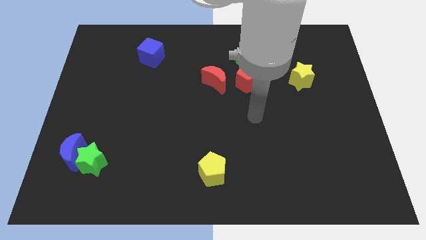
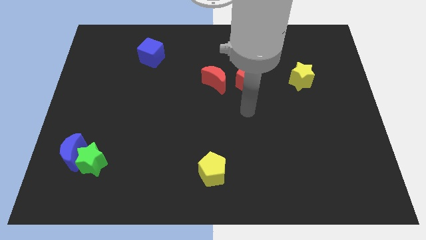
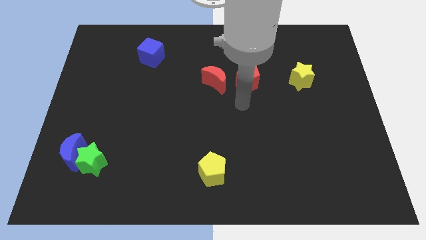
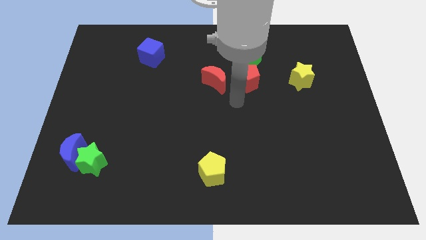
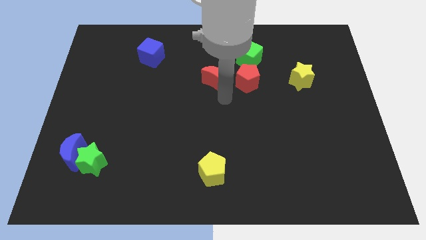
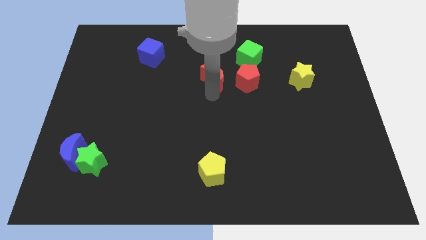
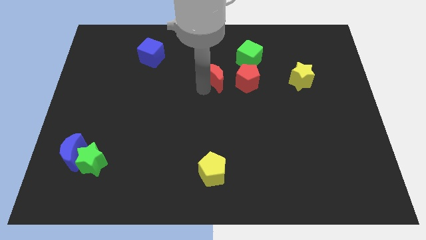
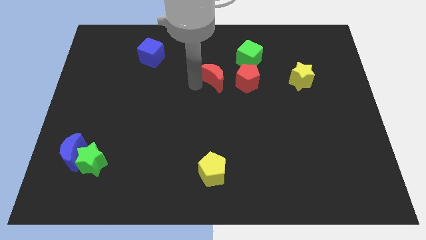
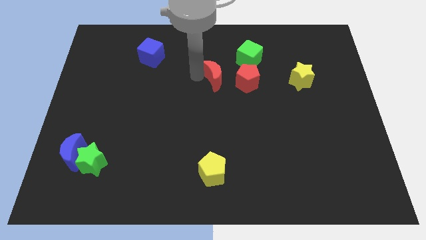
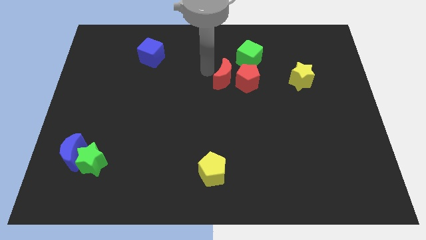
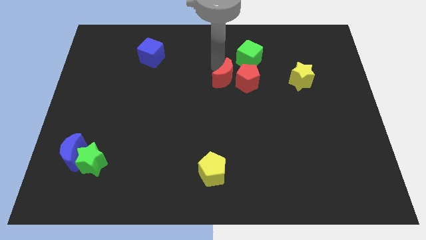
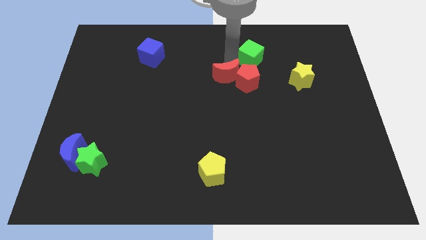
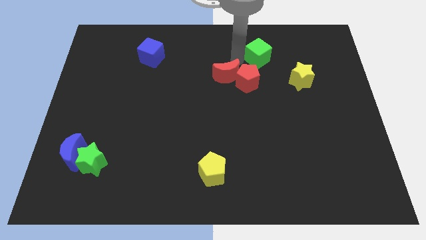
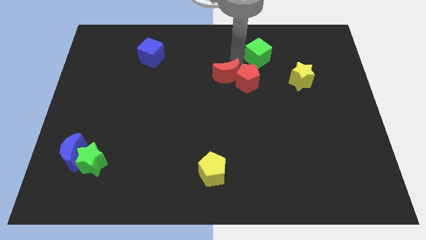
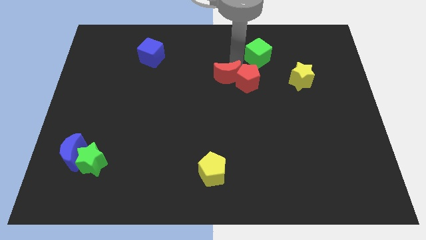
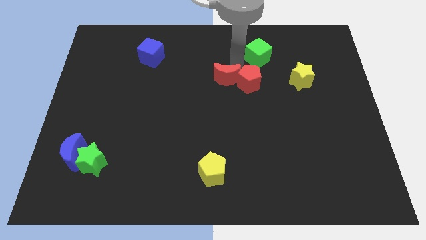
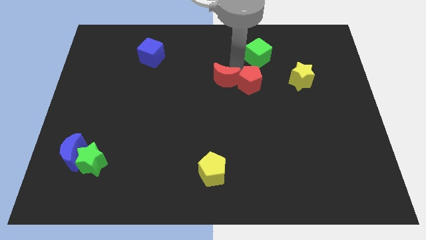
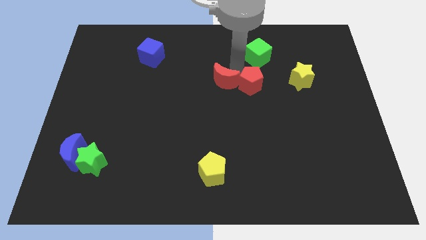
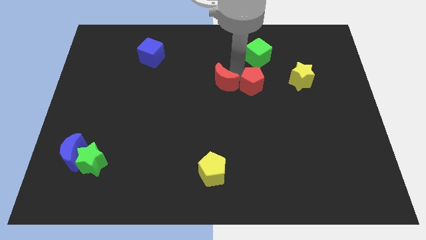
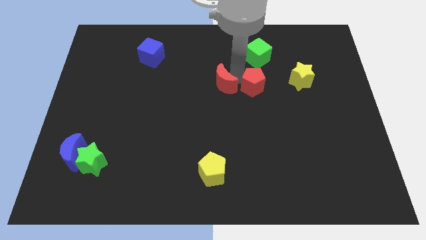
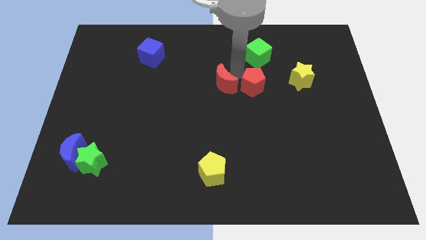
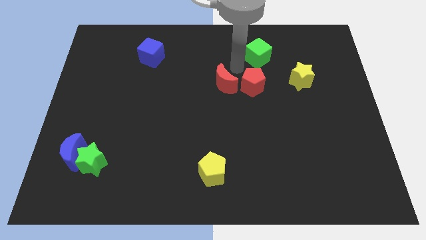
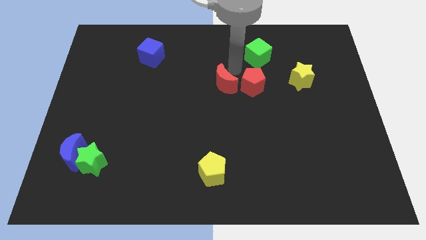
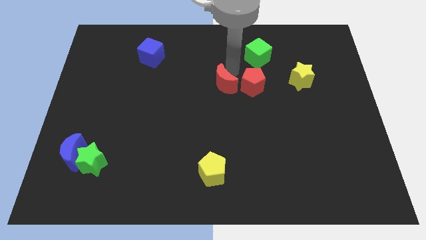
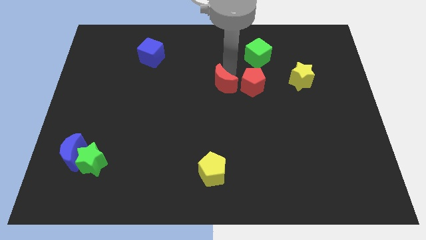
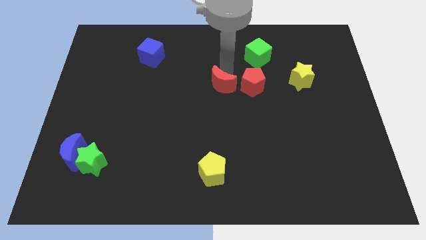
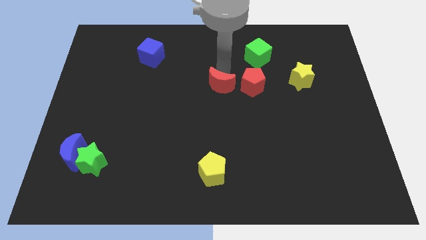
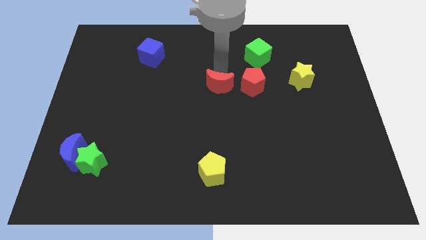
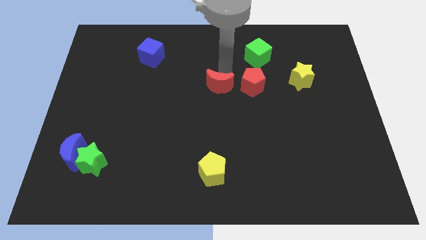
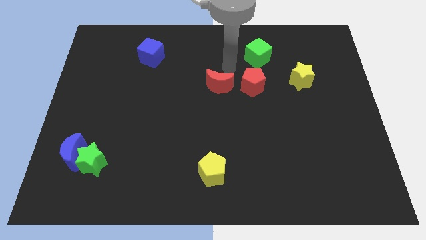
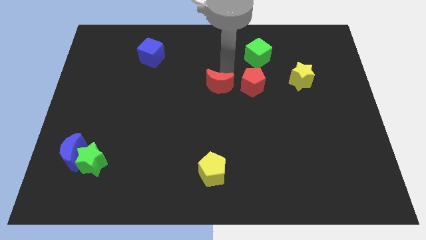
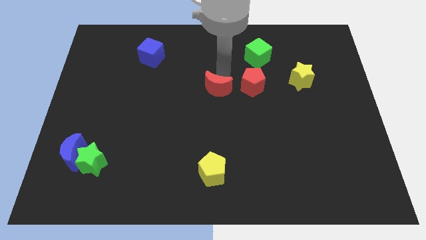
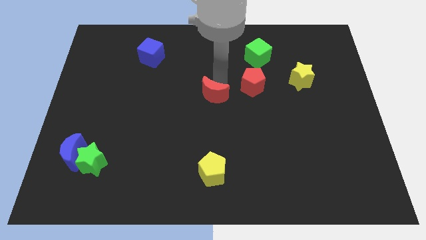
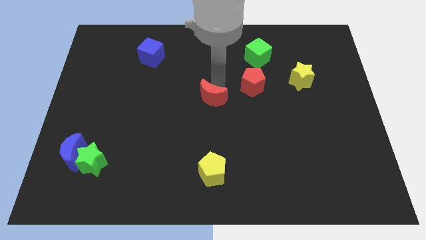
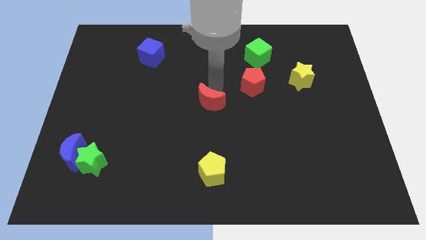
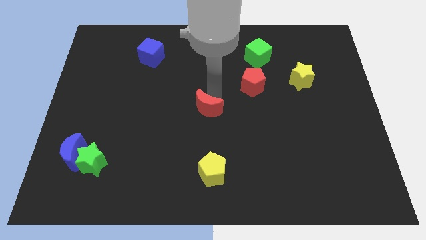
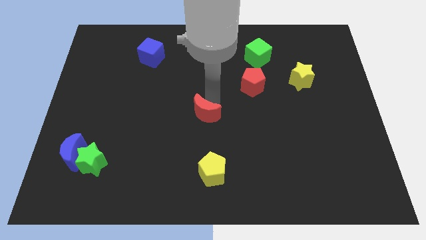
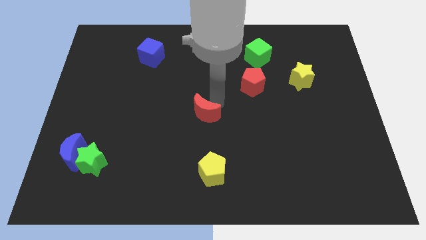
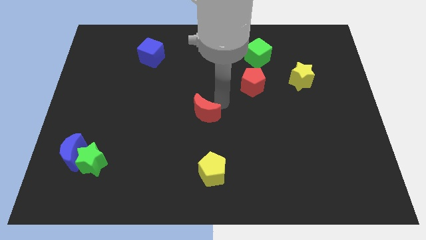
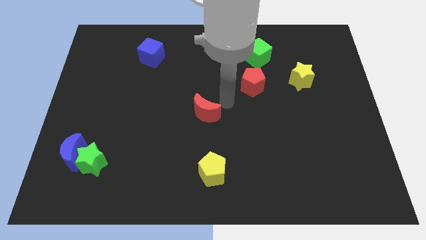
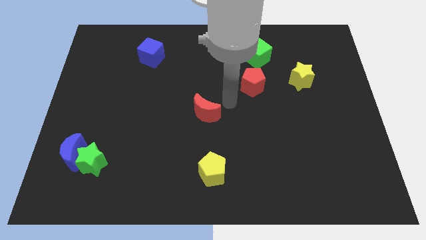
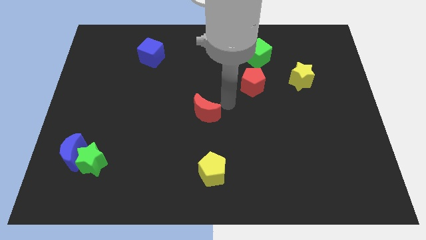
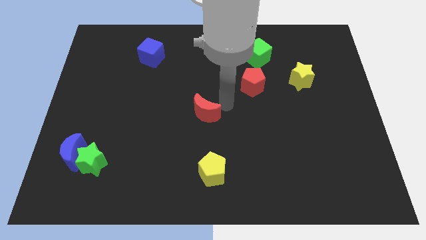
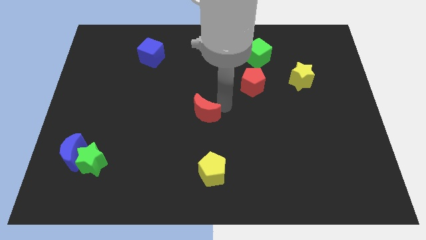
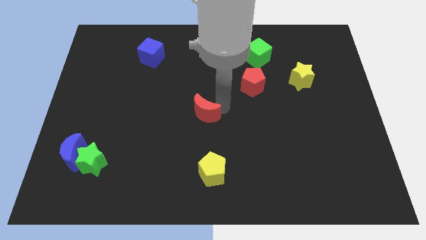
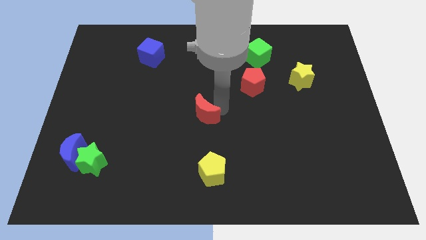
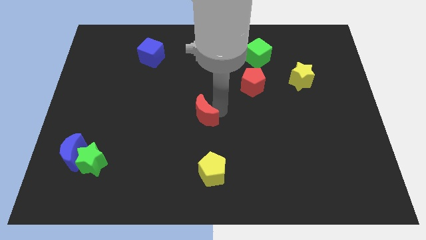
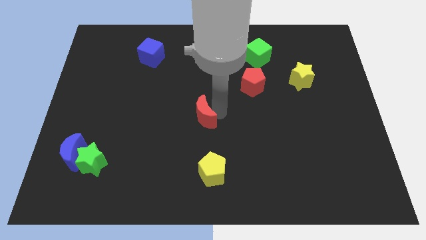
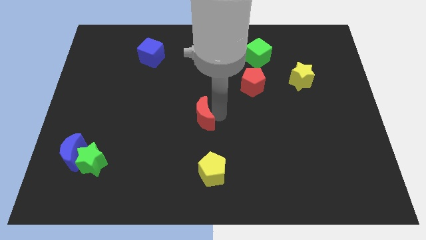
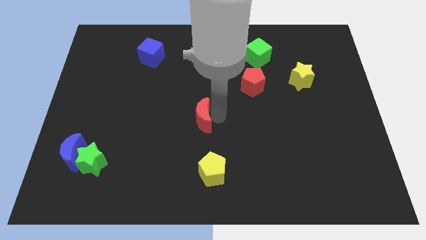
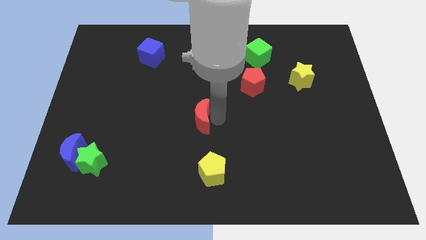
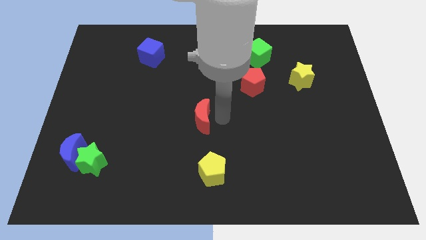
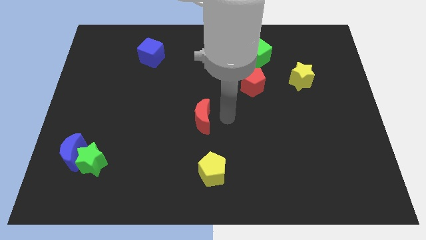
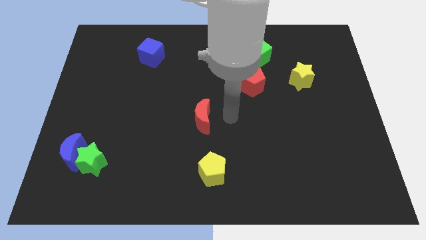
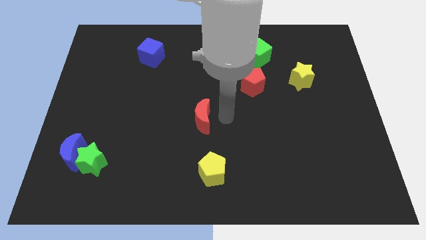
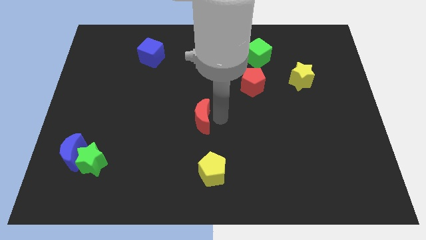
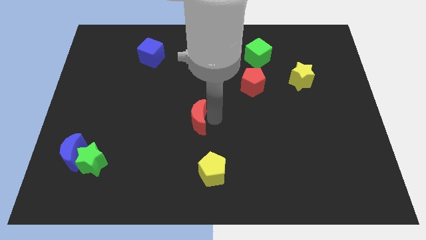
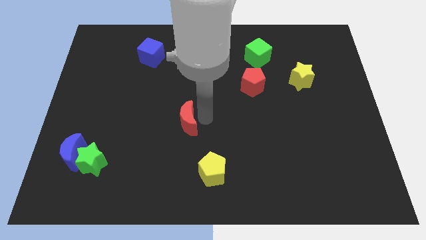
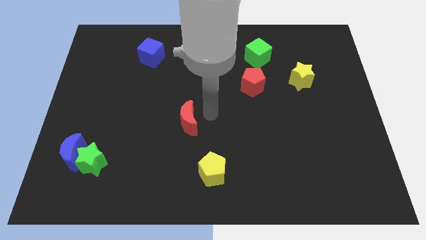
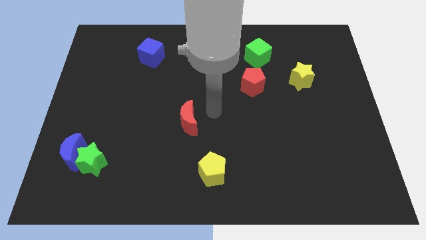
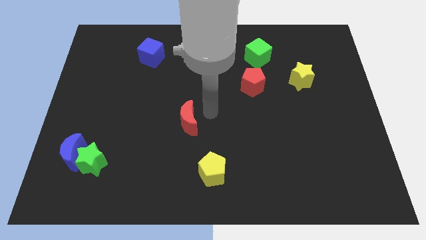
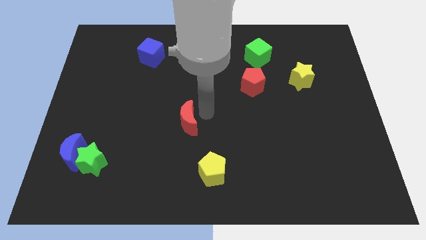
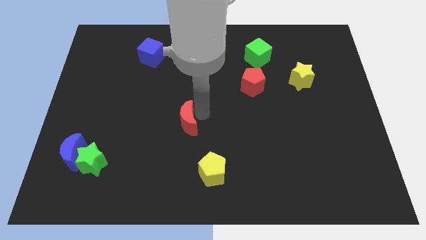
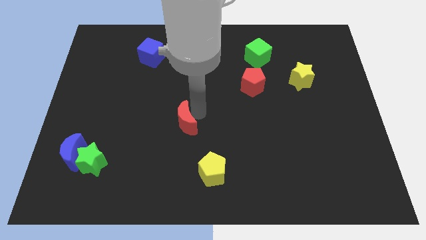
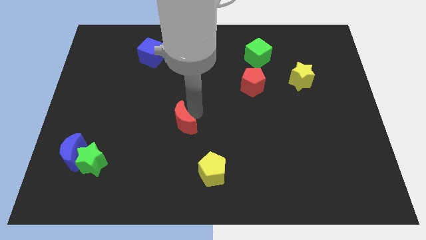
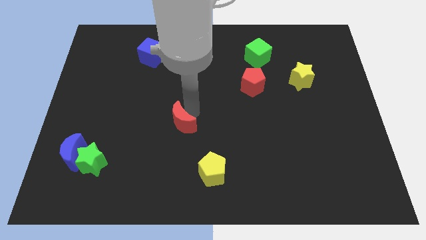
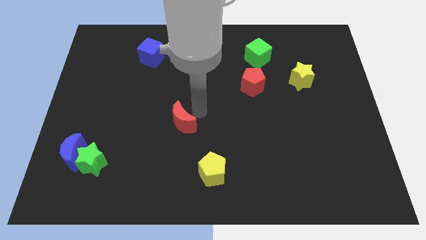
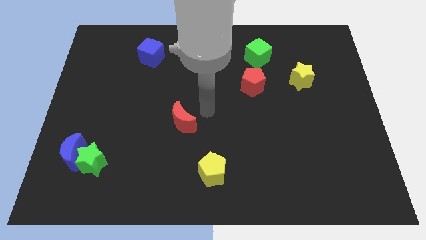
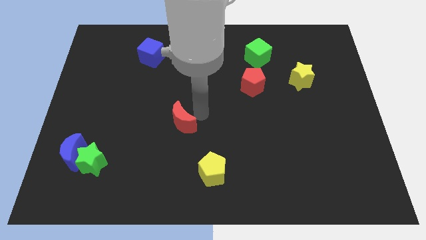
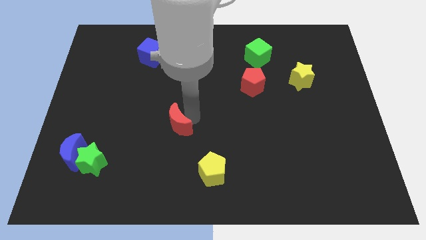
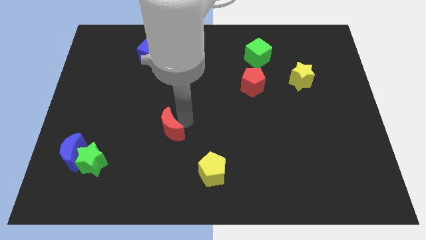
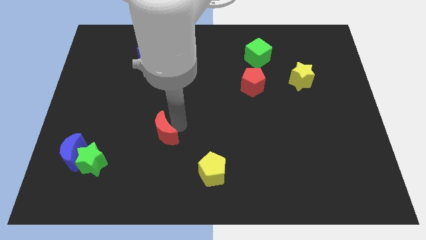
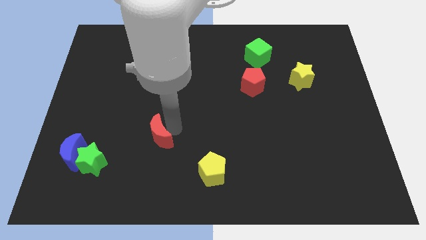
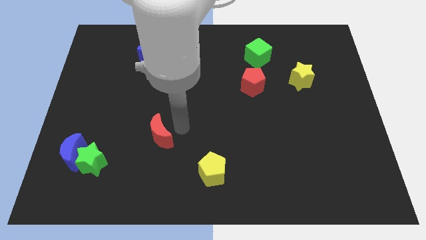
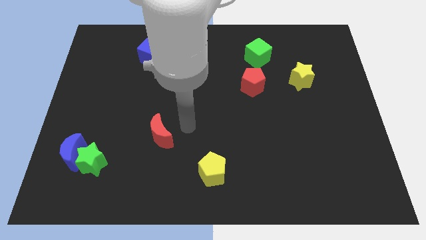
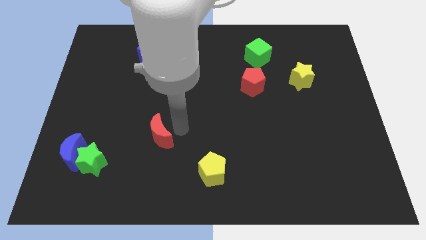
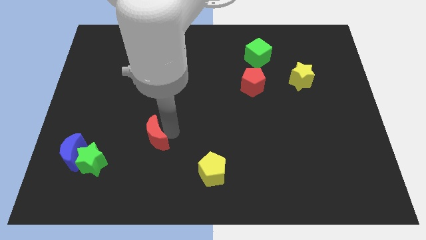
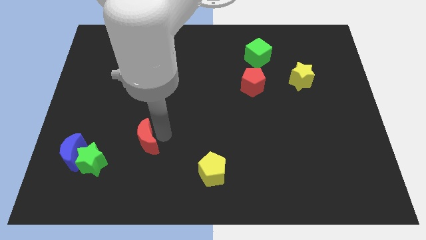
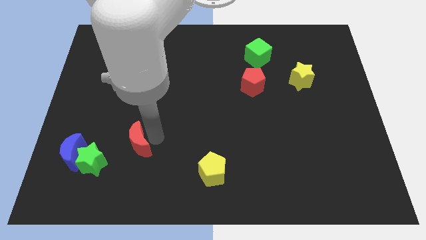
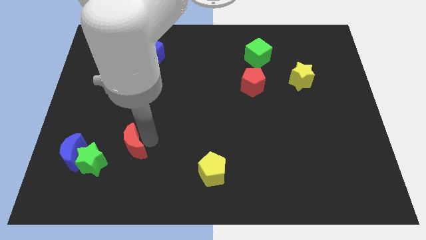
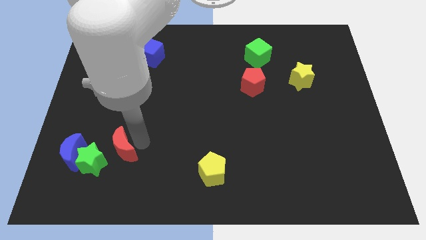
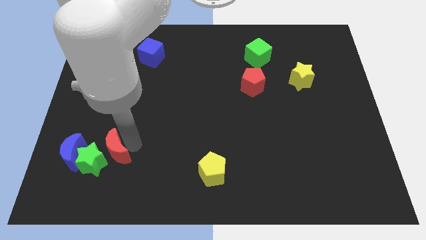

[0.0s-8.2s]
slide the red moon towards the green star
